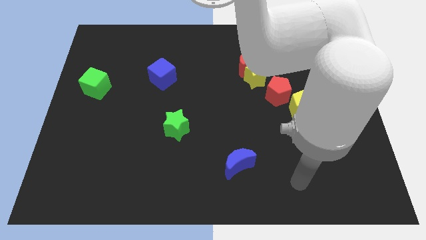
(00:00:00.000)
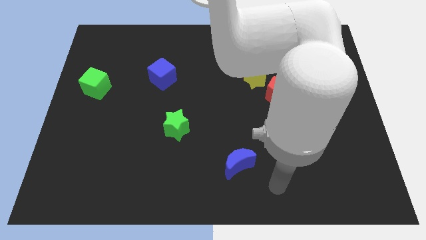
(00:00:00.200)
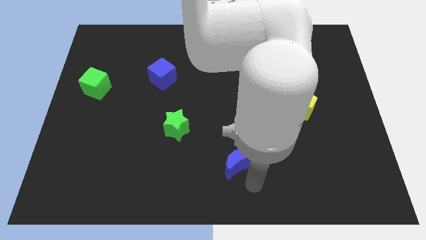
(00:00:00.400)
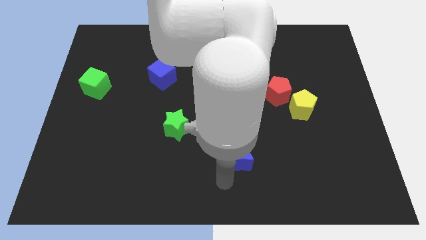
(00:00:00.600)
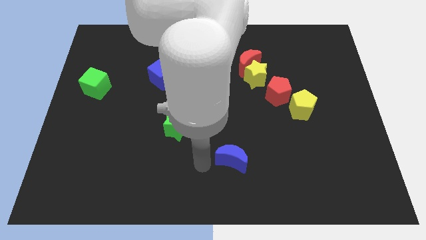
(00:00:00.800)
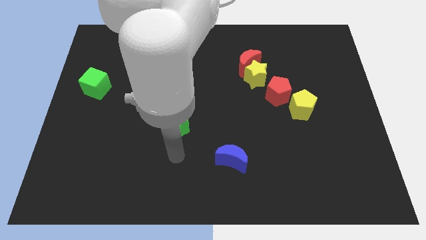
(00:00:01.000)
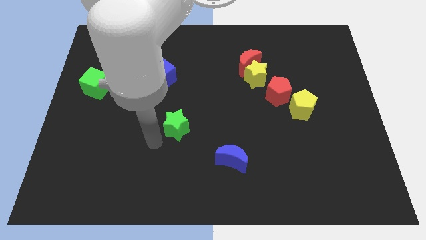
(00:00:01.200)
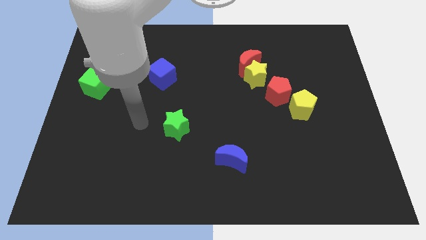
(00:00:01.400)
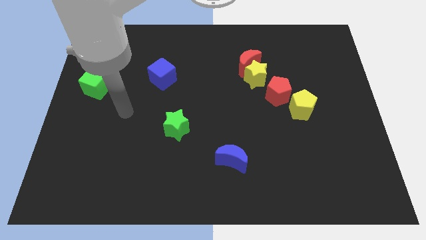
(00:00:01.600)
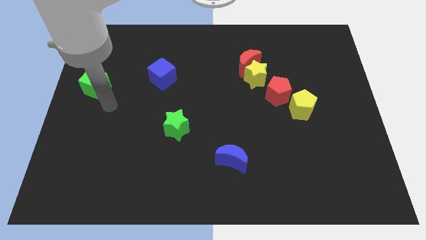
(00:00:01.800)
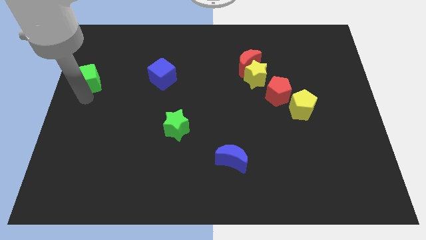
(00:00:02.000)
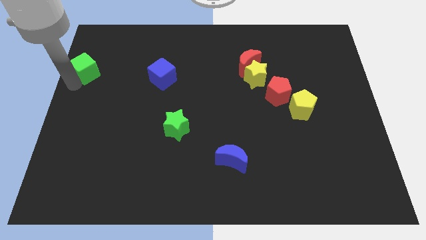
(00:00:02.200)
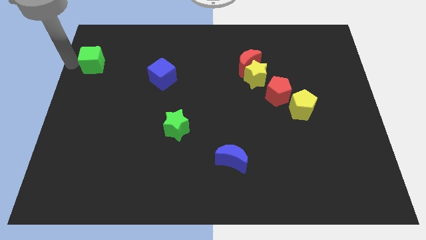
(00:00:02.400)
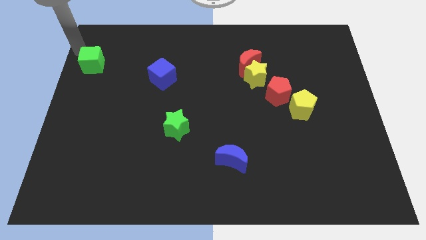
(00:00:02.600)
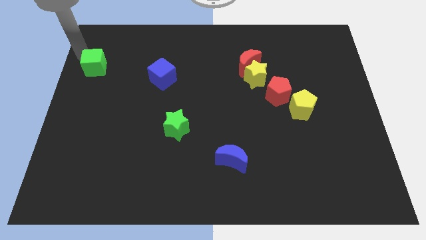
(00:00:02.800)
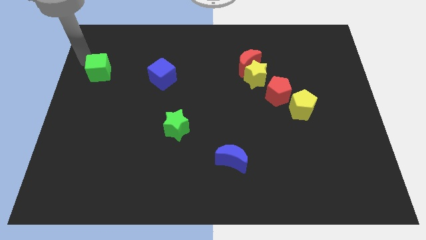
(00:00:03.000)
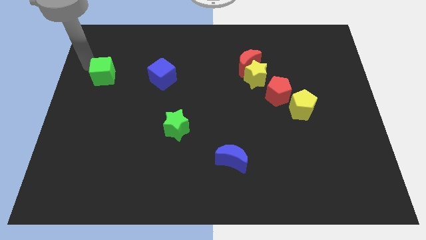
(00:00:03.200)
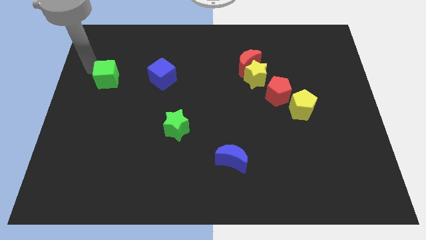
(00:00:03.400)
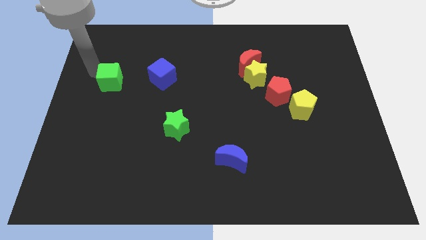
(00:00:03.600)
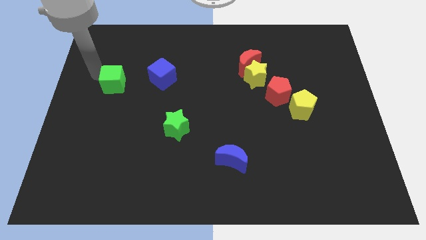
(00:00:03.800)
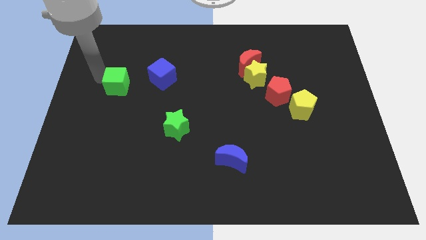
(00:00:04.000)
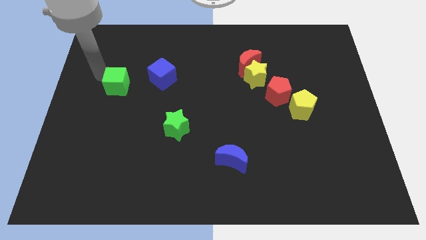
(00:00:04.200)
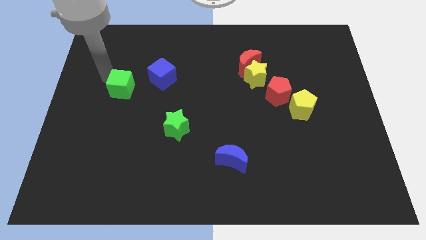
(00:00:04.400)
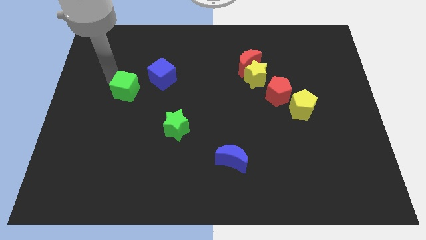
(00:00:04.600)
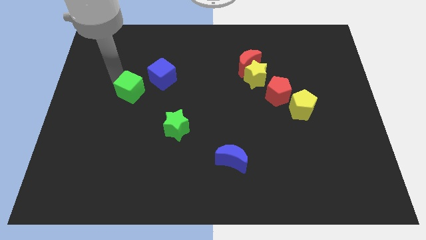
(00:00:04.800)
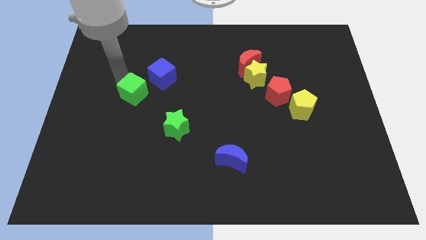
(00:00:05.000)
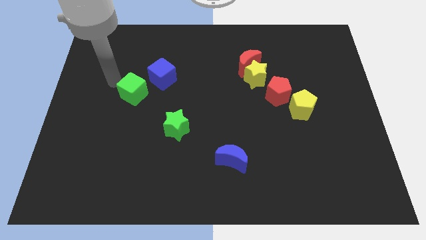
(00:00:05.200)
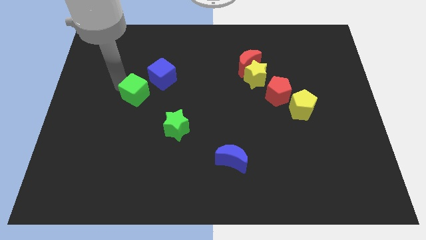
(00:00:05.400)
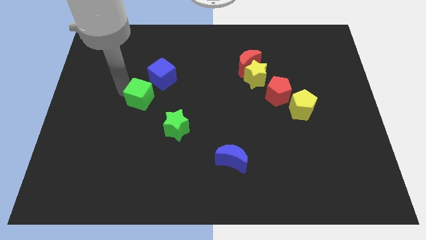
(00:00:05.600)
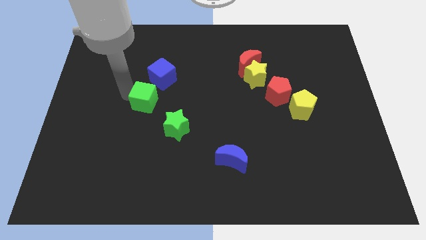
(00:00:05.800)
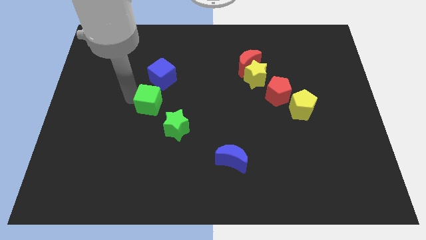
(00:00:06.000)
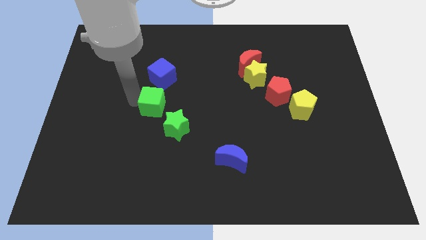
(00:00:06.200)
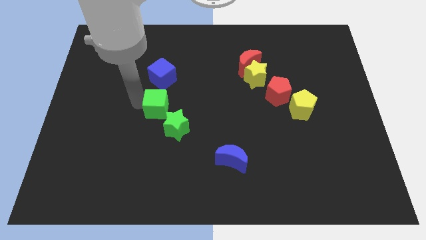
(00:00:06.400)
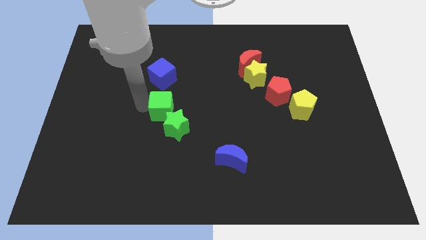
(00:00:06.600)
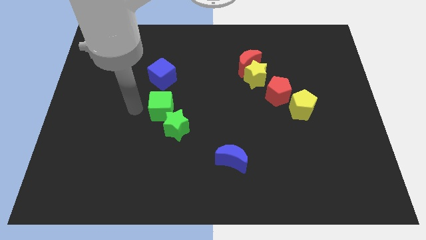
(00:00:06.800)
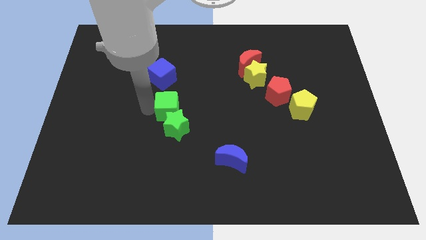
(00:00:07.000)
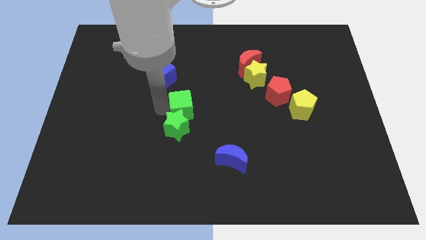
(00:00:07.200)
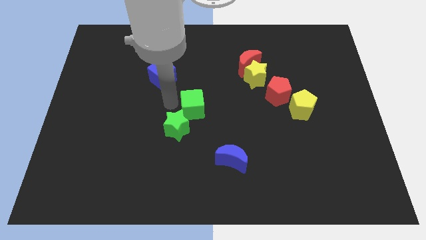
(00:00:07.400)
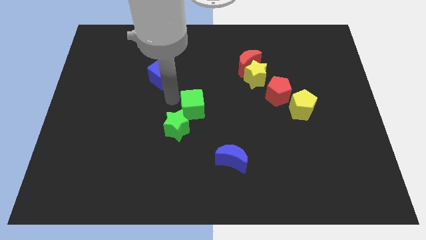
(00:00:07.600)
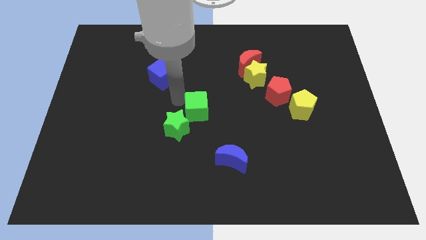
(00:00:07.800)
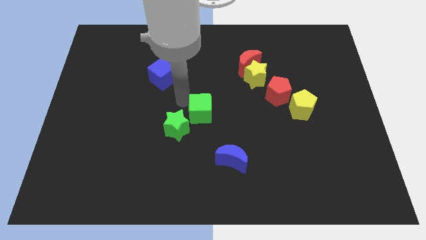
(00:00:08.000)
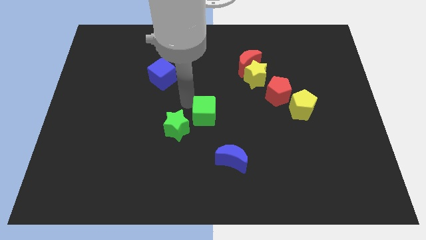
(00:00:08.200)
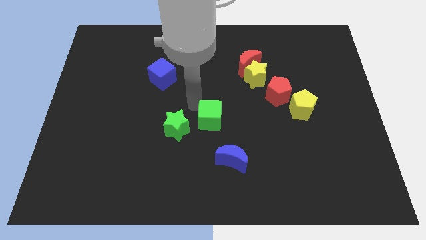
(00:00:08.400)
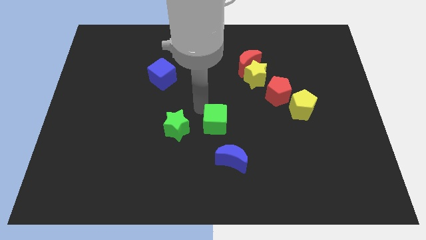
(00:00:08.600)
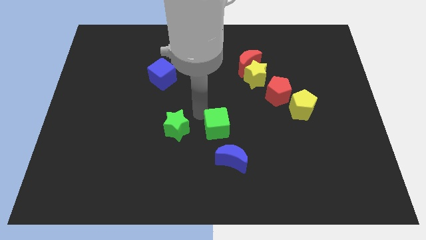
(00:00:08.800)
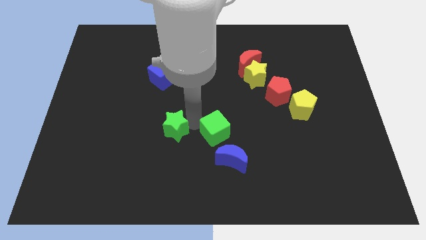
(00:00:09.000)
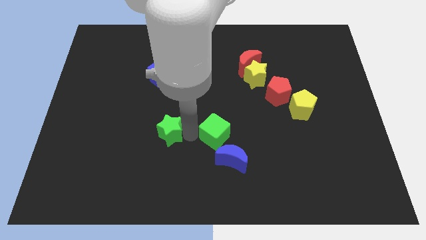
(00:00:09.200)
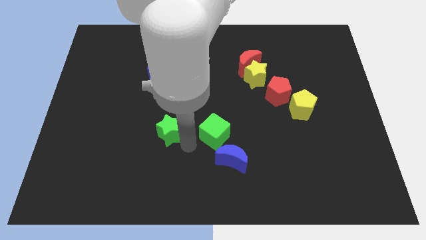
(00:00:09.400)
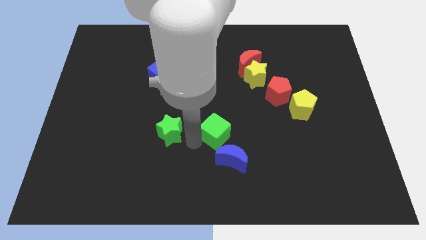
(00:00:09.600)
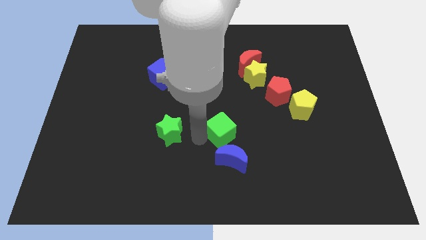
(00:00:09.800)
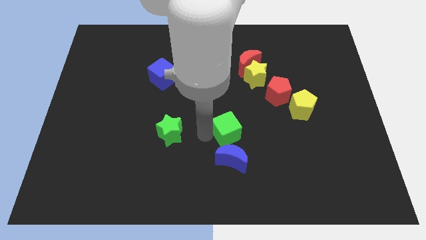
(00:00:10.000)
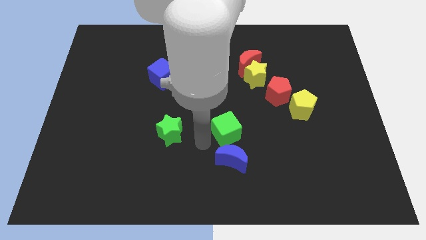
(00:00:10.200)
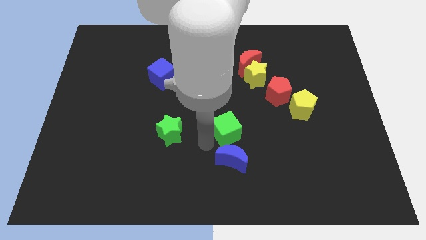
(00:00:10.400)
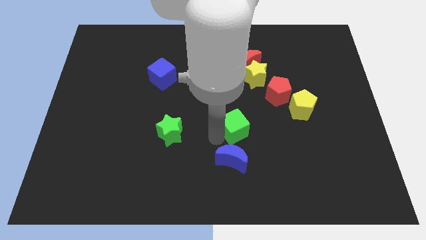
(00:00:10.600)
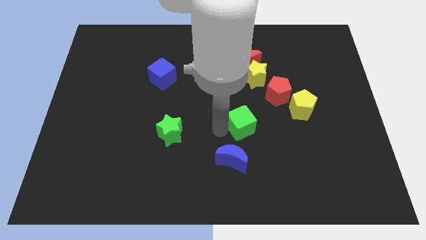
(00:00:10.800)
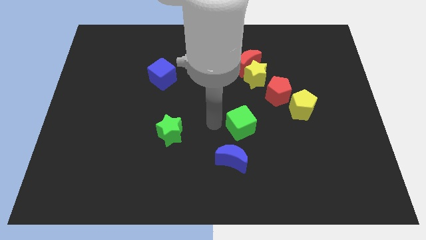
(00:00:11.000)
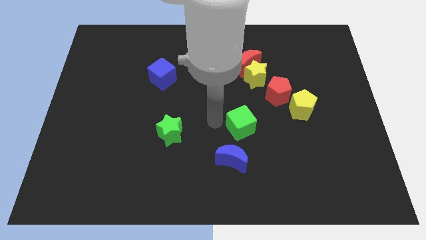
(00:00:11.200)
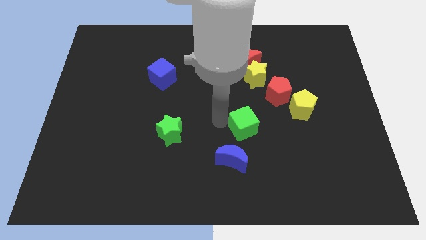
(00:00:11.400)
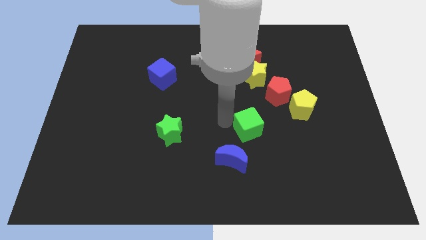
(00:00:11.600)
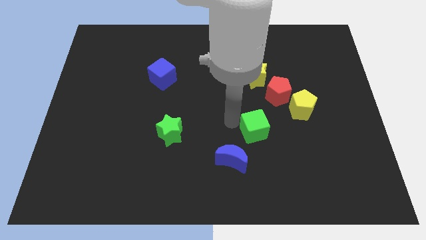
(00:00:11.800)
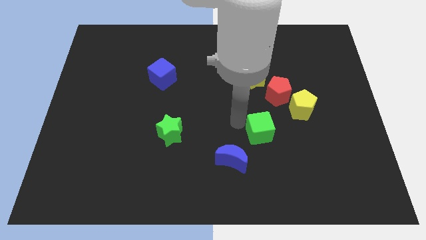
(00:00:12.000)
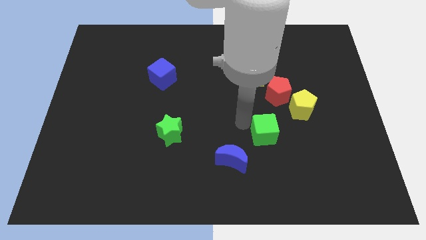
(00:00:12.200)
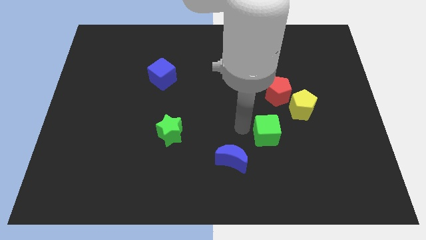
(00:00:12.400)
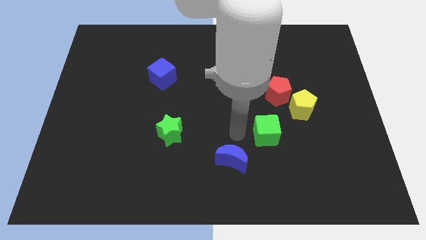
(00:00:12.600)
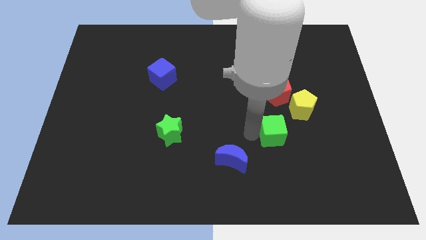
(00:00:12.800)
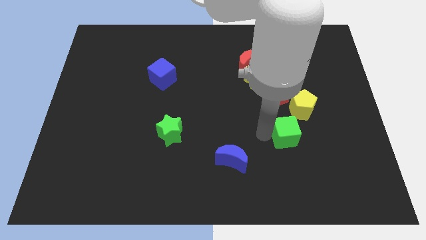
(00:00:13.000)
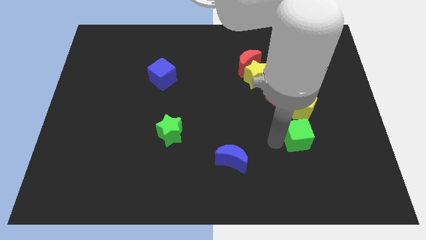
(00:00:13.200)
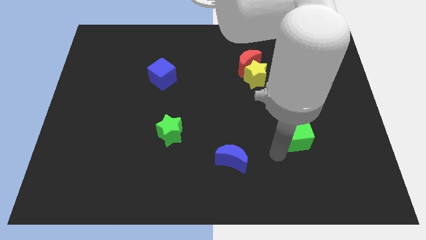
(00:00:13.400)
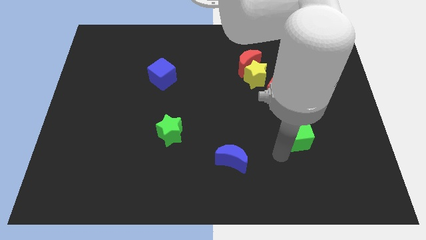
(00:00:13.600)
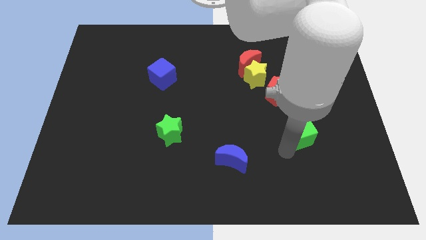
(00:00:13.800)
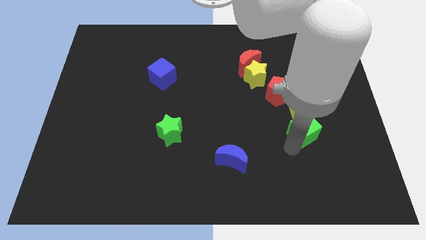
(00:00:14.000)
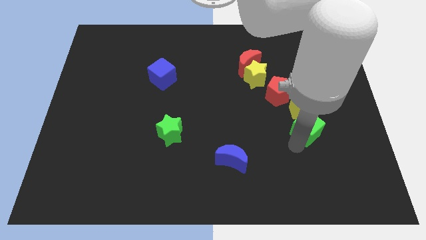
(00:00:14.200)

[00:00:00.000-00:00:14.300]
move the green cube to the bottom right of the red pentagon
